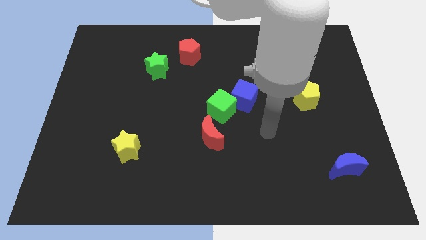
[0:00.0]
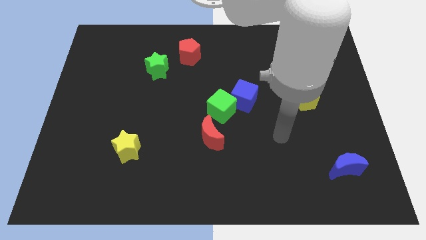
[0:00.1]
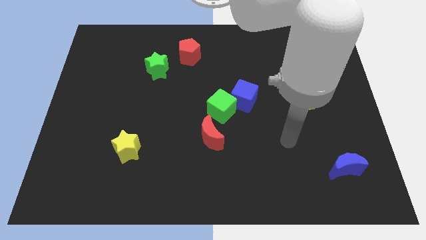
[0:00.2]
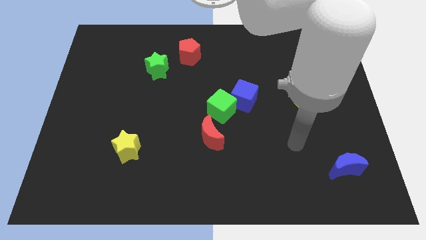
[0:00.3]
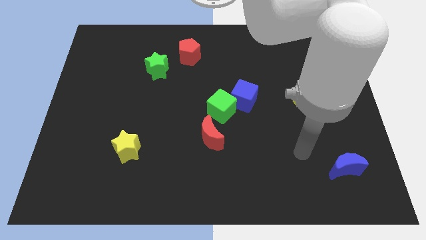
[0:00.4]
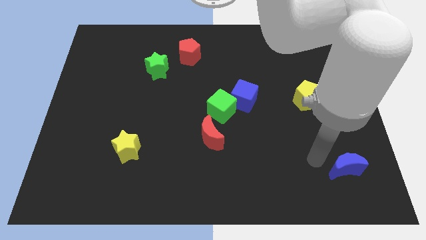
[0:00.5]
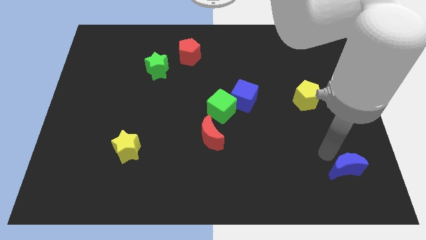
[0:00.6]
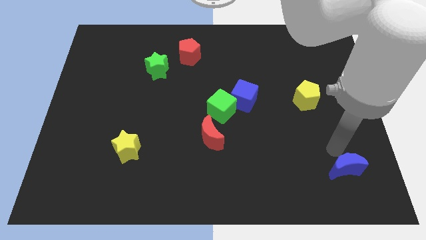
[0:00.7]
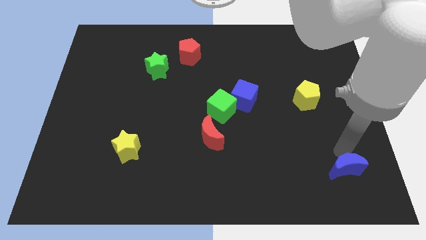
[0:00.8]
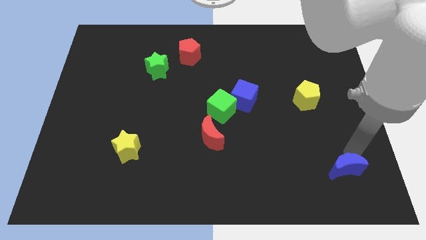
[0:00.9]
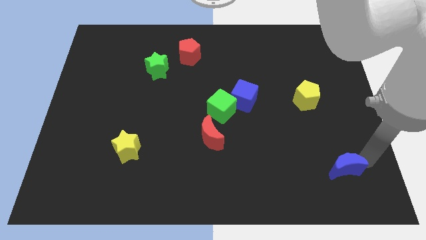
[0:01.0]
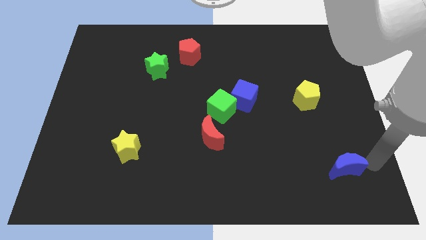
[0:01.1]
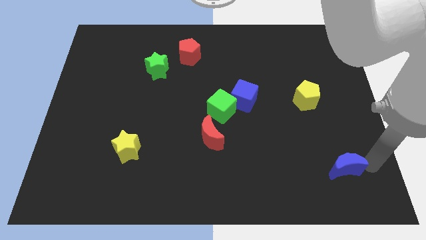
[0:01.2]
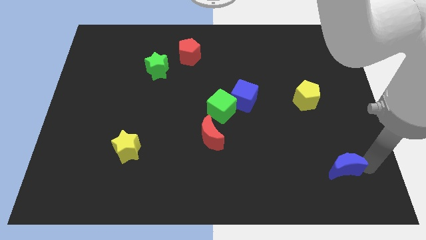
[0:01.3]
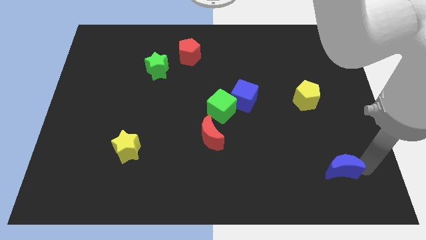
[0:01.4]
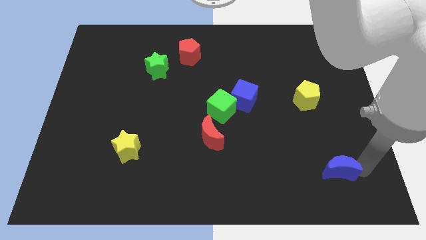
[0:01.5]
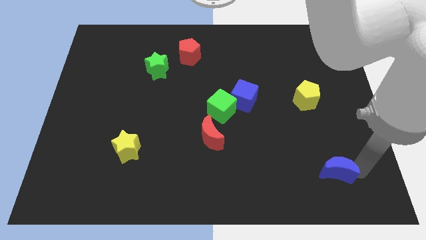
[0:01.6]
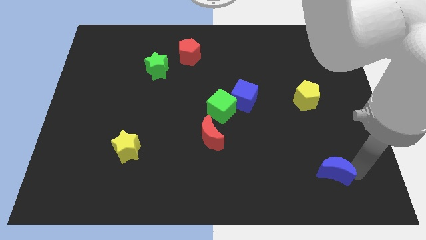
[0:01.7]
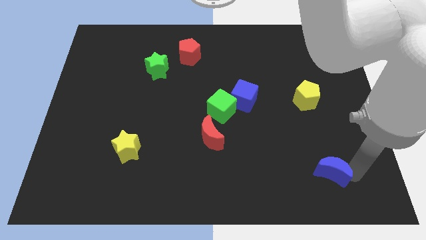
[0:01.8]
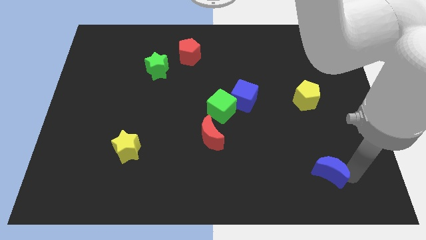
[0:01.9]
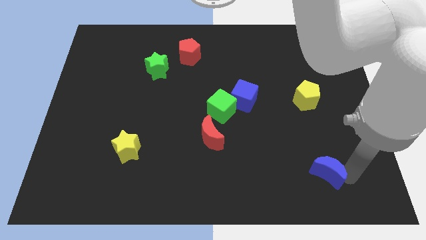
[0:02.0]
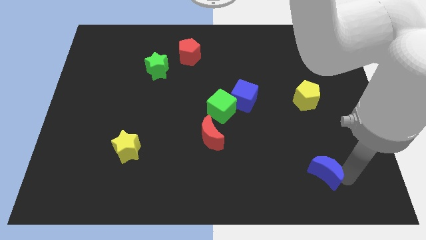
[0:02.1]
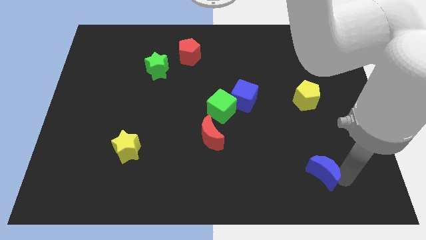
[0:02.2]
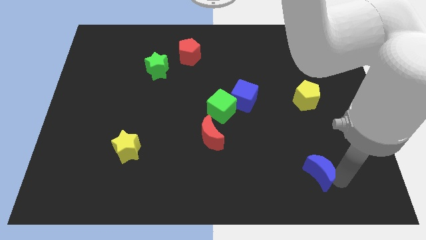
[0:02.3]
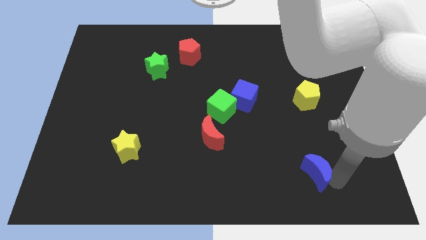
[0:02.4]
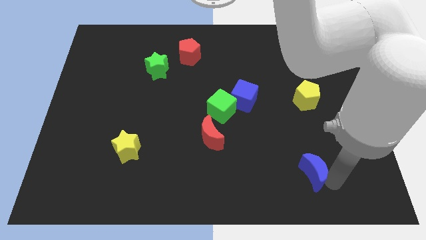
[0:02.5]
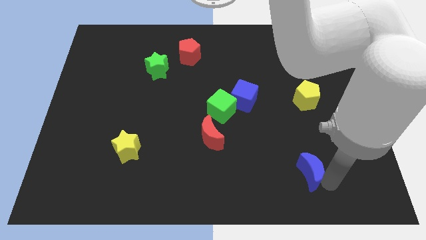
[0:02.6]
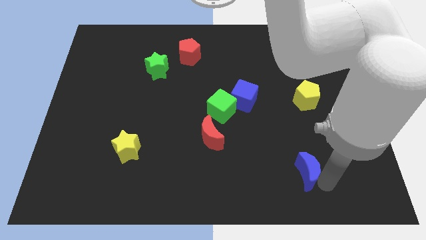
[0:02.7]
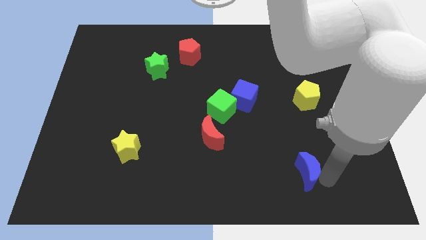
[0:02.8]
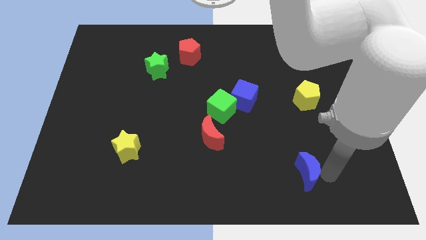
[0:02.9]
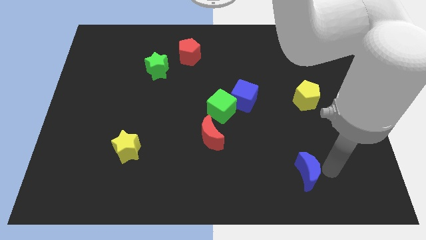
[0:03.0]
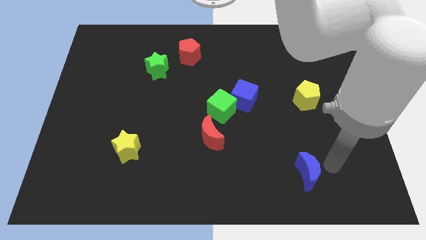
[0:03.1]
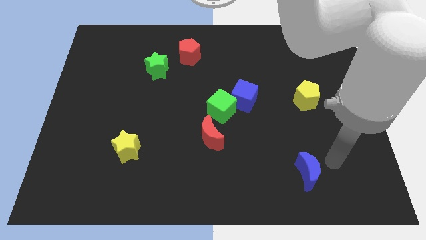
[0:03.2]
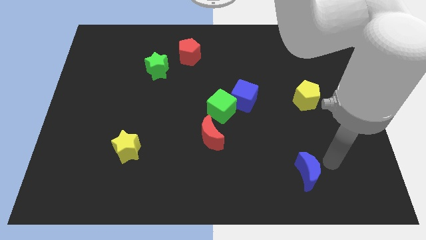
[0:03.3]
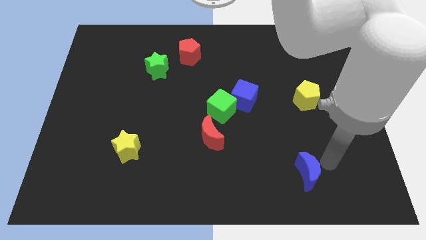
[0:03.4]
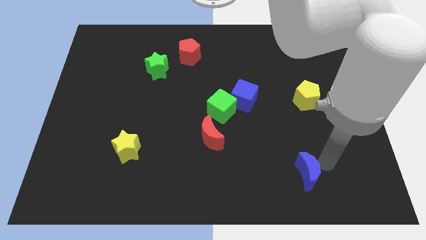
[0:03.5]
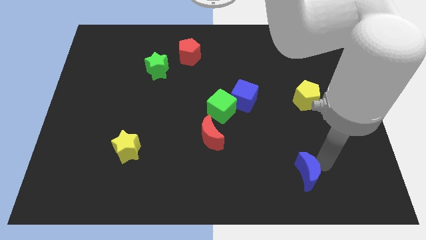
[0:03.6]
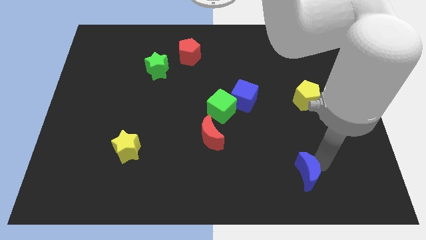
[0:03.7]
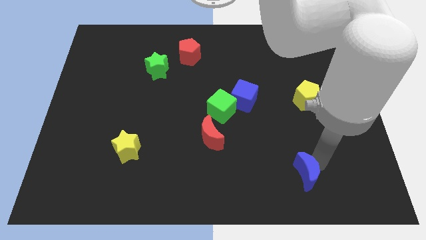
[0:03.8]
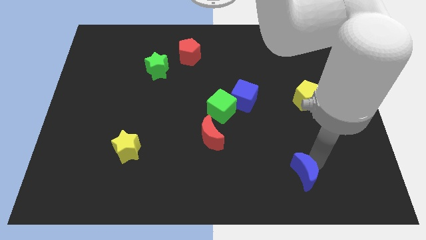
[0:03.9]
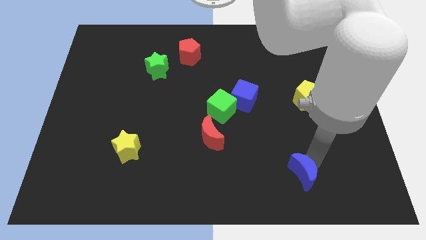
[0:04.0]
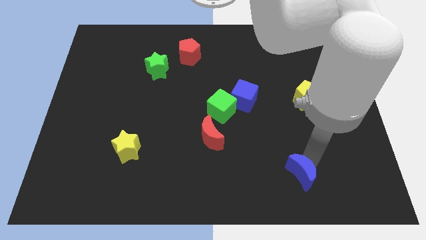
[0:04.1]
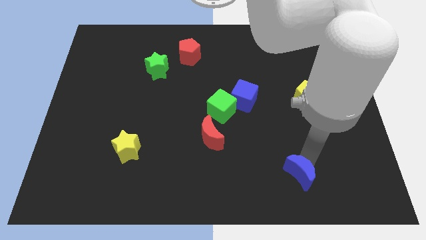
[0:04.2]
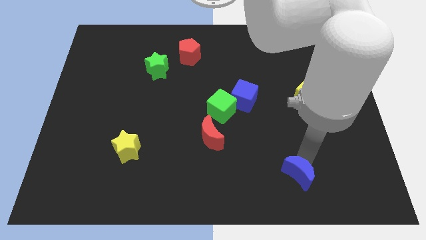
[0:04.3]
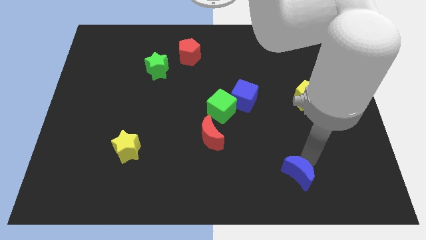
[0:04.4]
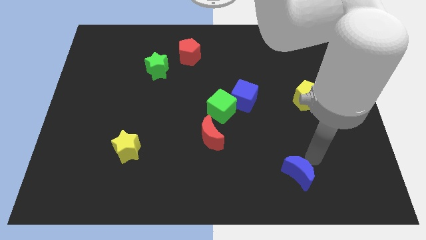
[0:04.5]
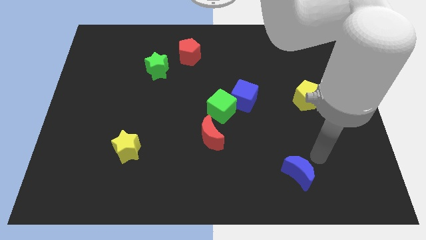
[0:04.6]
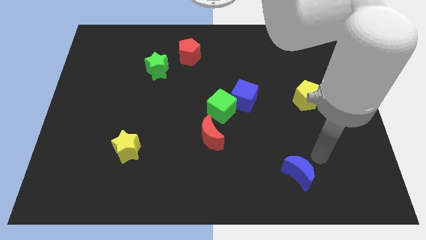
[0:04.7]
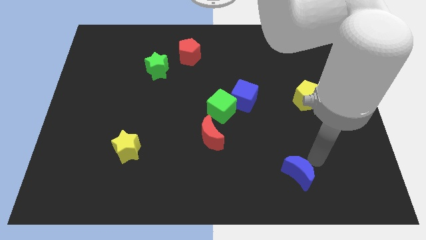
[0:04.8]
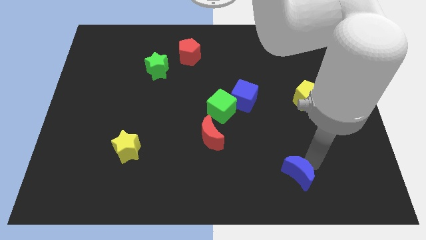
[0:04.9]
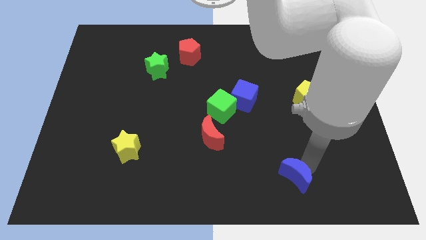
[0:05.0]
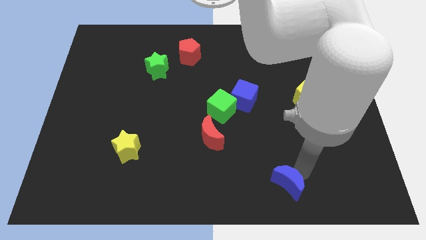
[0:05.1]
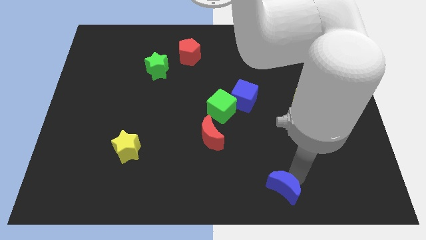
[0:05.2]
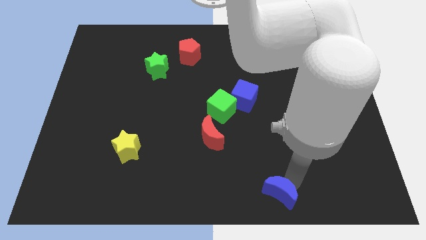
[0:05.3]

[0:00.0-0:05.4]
move the blue moon to the bottom

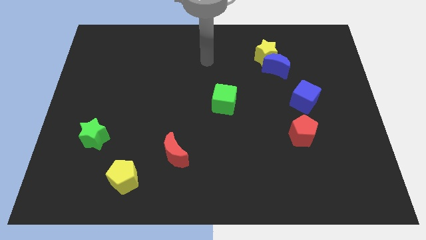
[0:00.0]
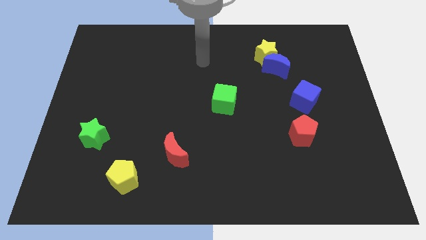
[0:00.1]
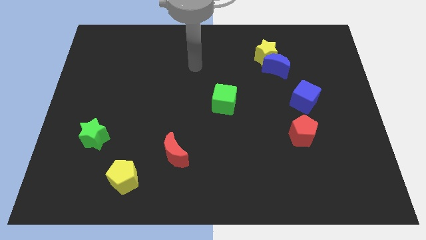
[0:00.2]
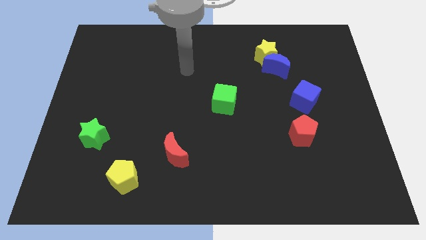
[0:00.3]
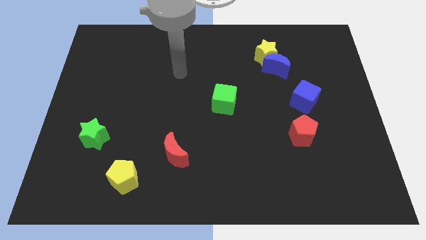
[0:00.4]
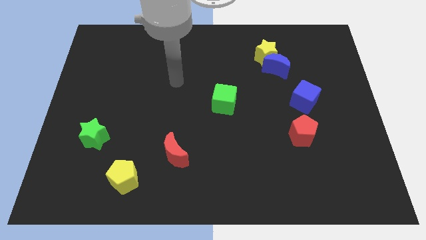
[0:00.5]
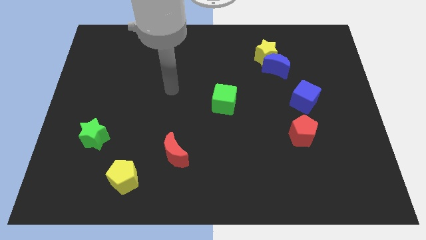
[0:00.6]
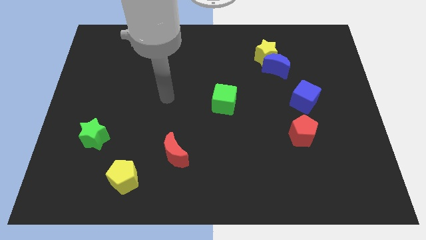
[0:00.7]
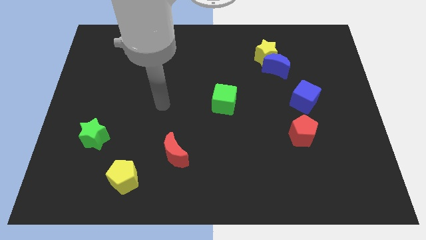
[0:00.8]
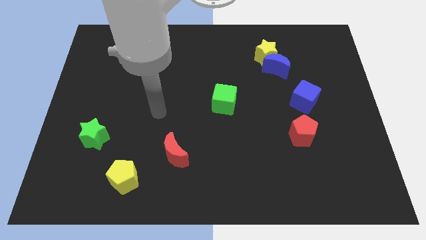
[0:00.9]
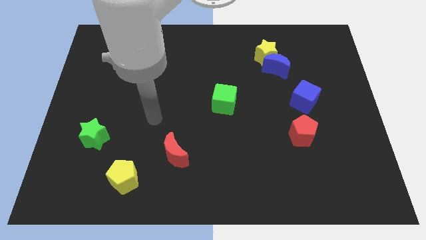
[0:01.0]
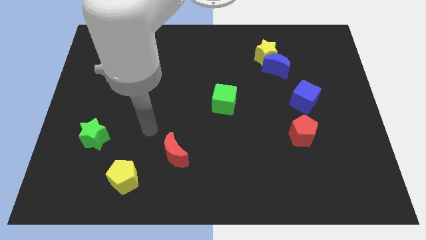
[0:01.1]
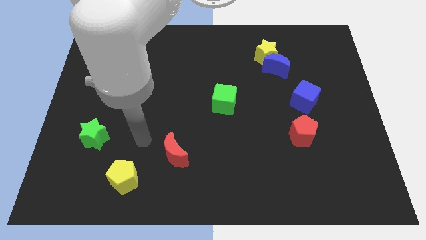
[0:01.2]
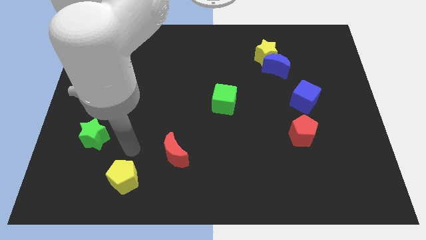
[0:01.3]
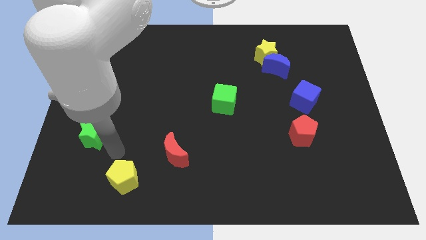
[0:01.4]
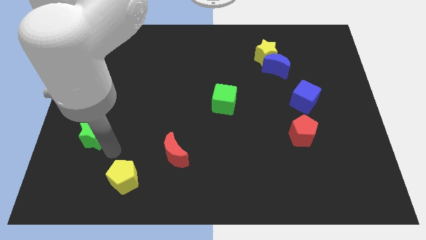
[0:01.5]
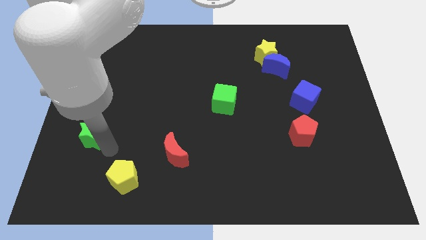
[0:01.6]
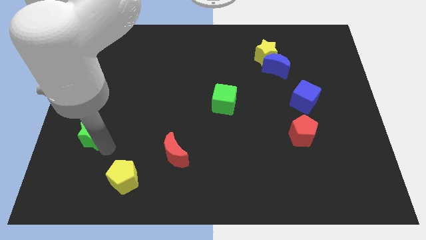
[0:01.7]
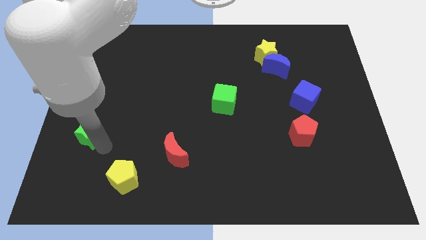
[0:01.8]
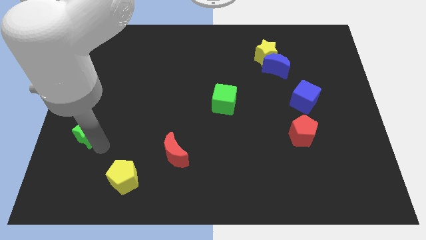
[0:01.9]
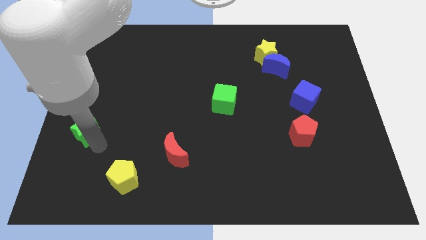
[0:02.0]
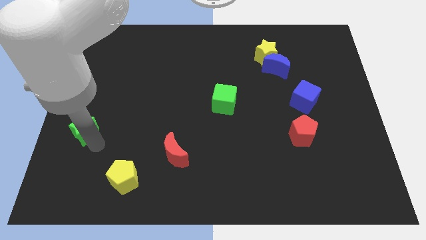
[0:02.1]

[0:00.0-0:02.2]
push the green star to the center left
